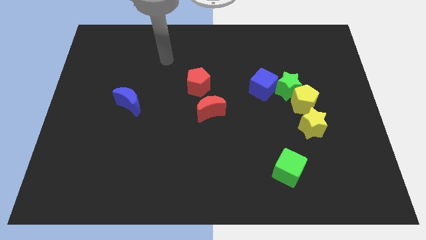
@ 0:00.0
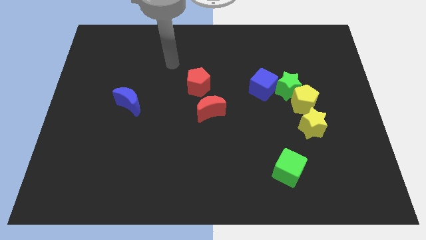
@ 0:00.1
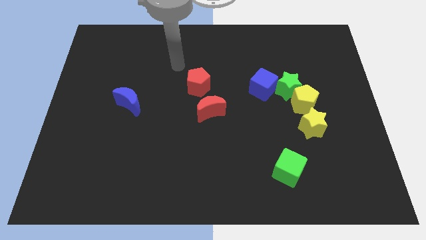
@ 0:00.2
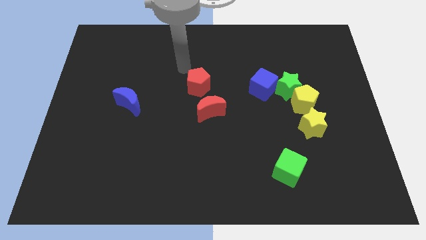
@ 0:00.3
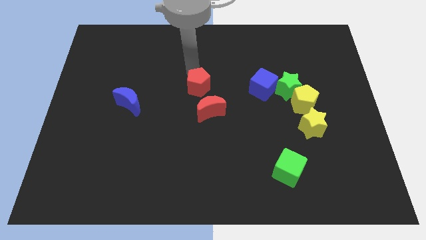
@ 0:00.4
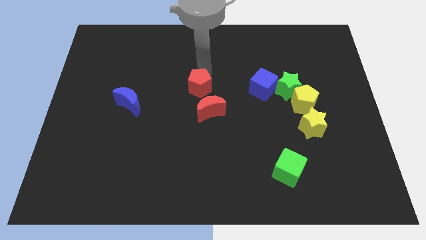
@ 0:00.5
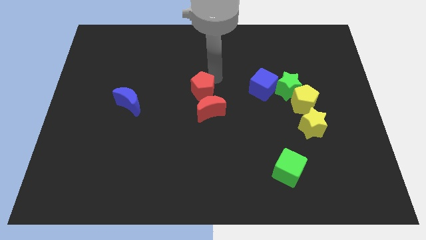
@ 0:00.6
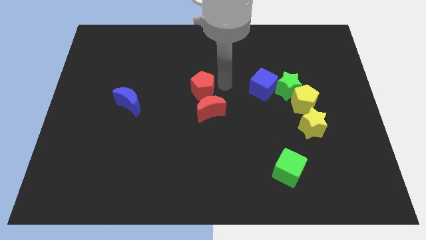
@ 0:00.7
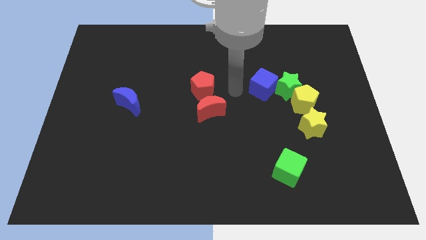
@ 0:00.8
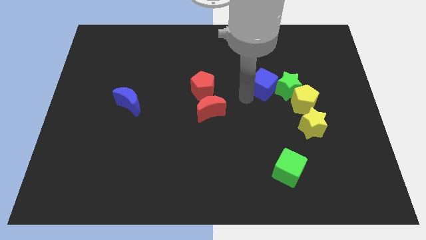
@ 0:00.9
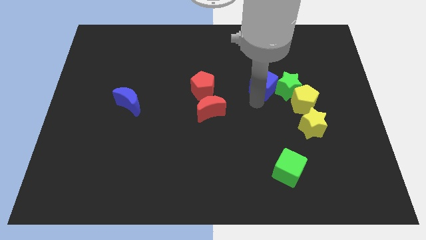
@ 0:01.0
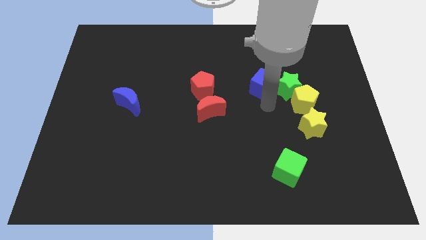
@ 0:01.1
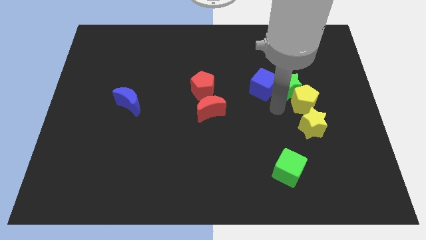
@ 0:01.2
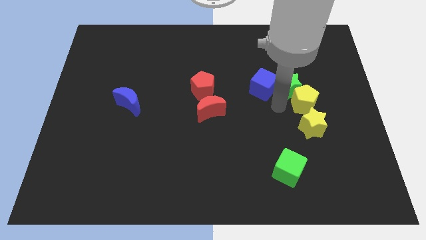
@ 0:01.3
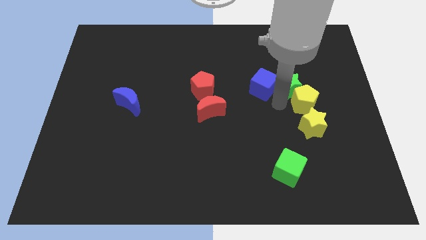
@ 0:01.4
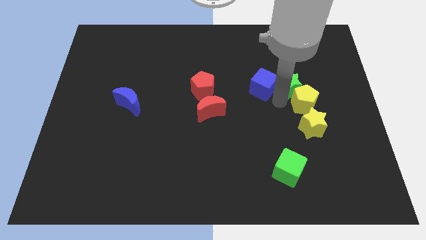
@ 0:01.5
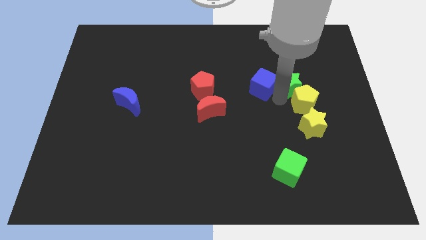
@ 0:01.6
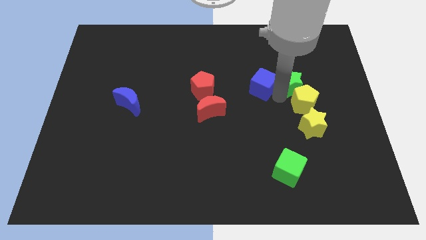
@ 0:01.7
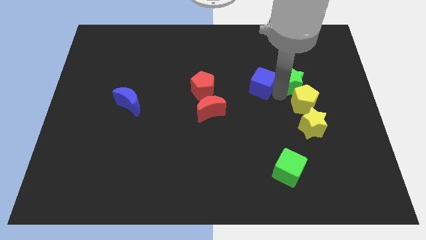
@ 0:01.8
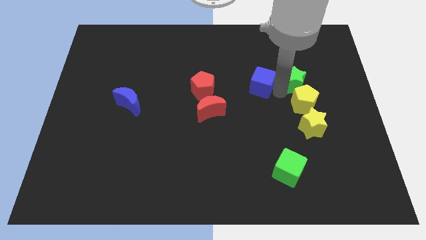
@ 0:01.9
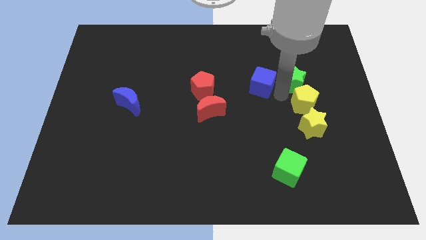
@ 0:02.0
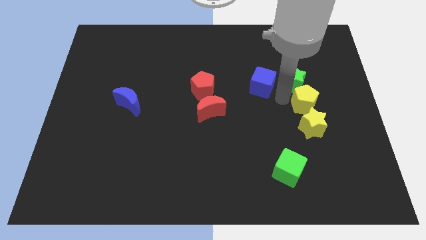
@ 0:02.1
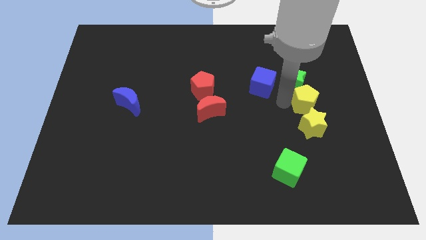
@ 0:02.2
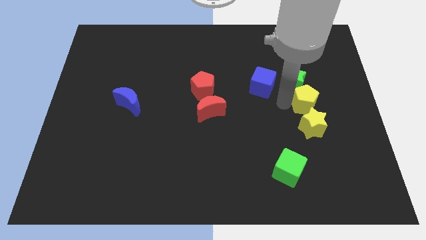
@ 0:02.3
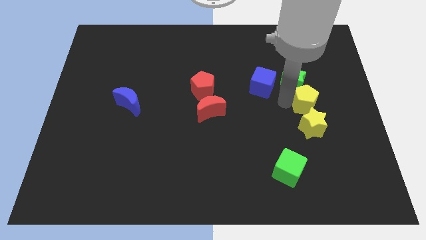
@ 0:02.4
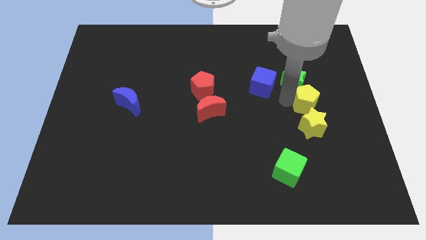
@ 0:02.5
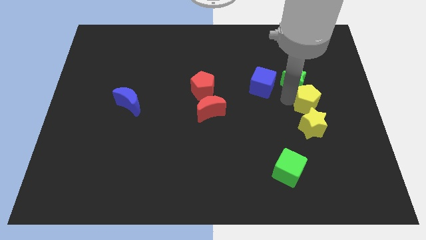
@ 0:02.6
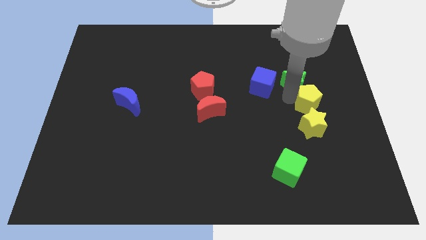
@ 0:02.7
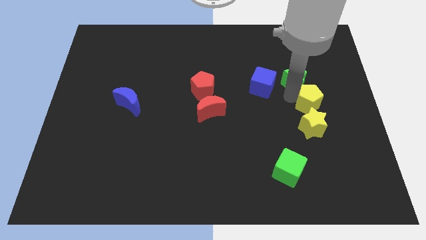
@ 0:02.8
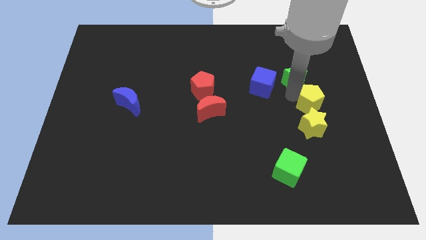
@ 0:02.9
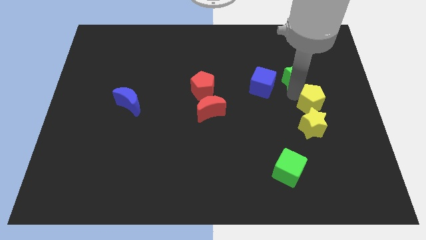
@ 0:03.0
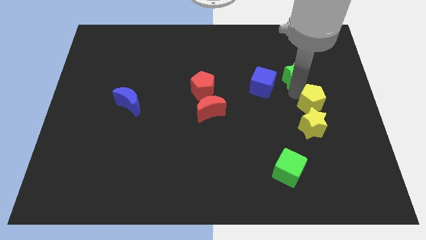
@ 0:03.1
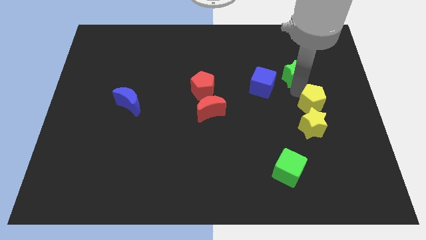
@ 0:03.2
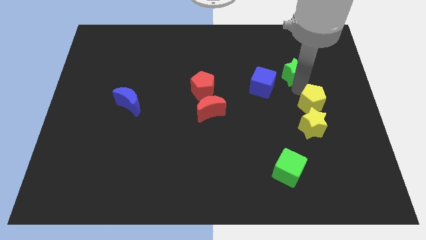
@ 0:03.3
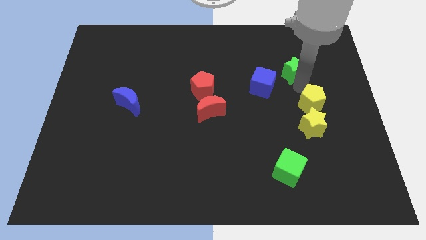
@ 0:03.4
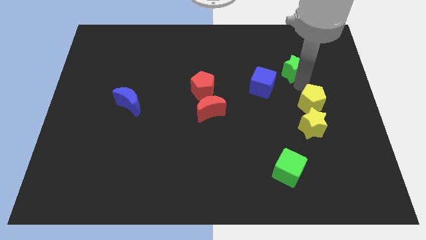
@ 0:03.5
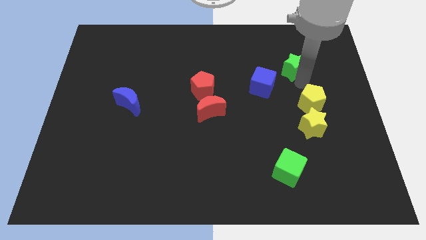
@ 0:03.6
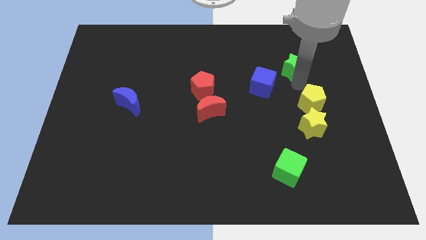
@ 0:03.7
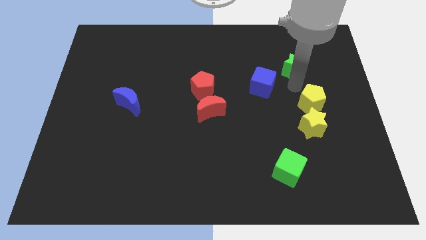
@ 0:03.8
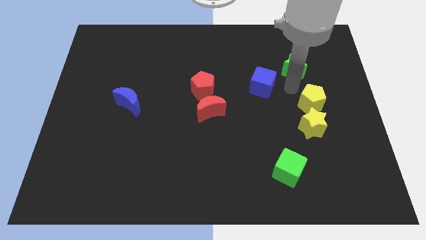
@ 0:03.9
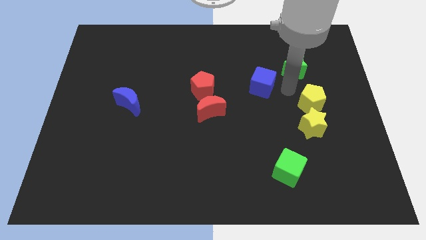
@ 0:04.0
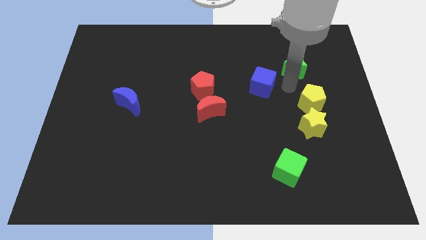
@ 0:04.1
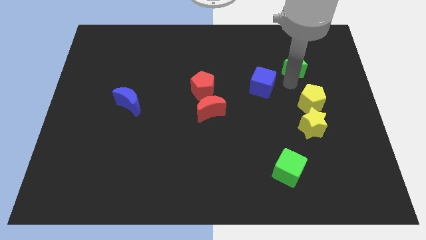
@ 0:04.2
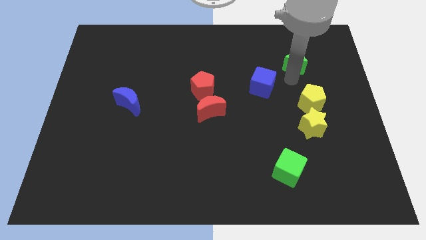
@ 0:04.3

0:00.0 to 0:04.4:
move the green star away from the yellow pentagon and blue cube

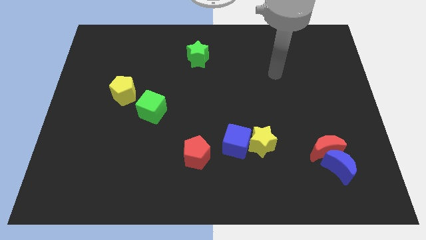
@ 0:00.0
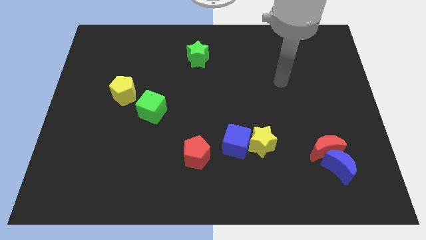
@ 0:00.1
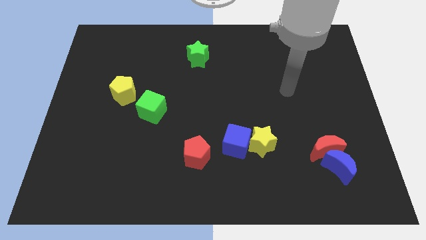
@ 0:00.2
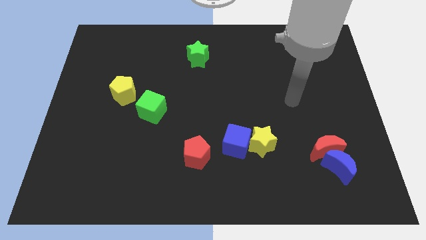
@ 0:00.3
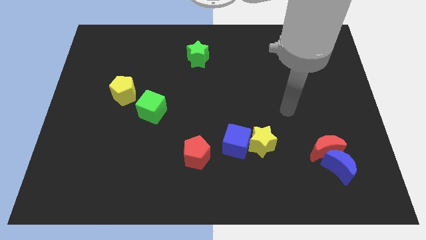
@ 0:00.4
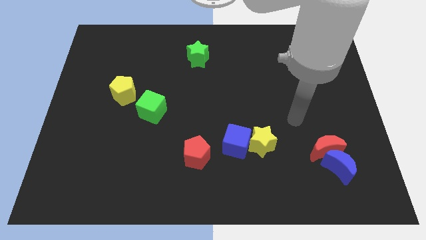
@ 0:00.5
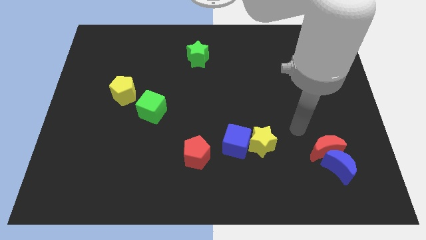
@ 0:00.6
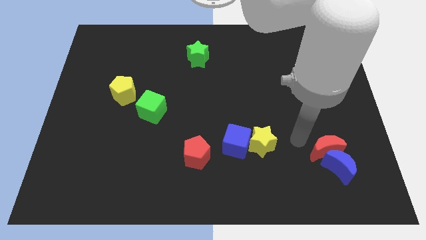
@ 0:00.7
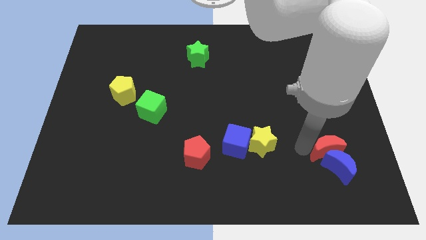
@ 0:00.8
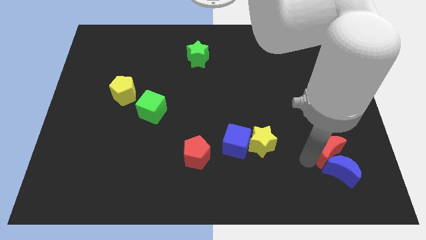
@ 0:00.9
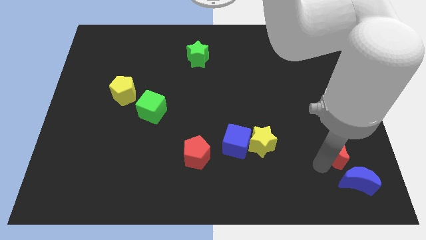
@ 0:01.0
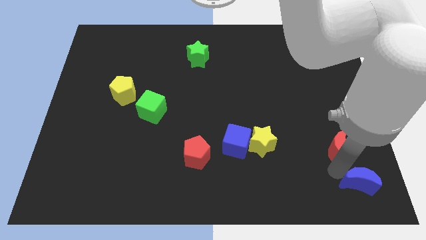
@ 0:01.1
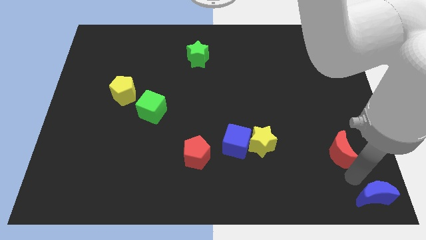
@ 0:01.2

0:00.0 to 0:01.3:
separate the red moon from the blue moon

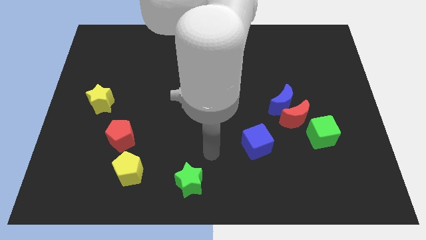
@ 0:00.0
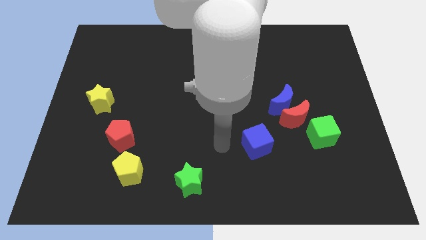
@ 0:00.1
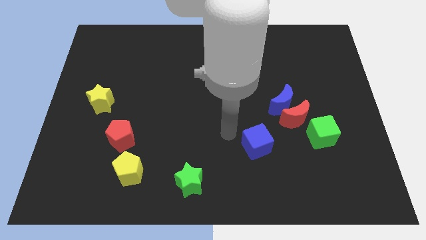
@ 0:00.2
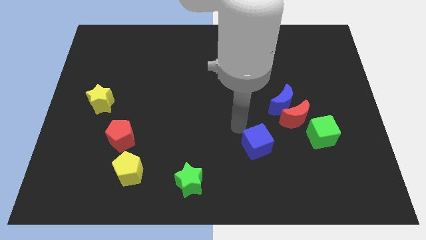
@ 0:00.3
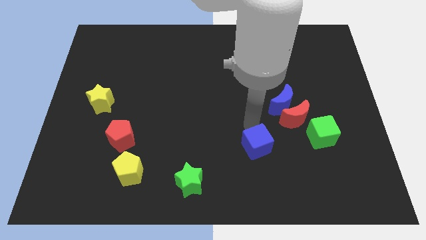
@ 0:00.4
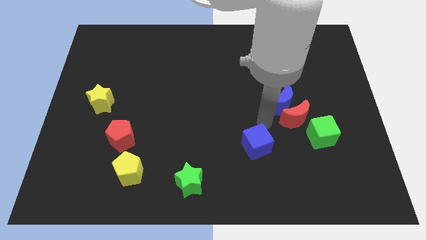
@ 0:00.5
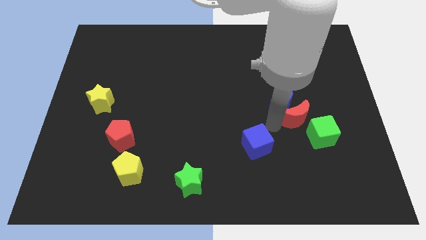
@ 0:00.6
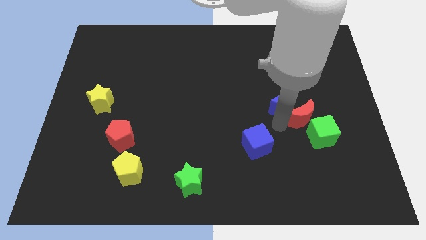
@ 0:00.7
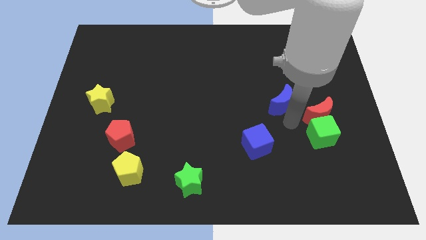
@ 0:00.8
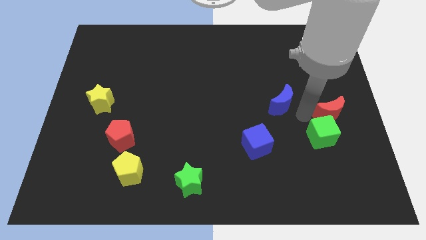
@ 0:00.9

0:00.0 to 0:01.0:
move the blue moon away from the red moon

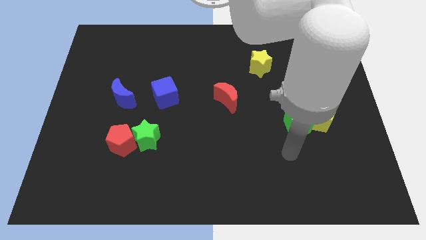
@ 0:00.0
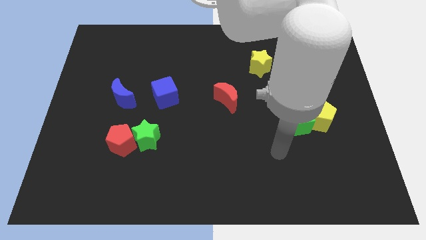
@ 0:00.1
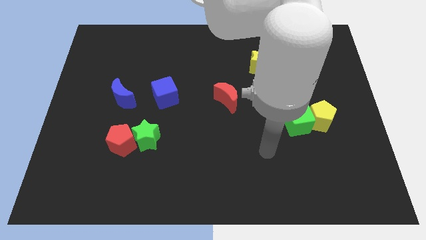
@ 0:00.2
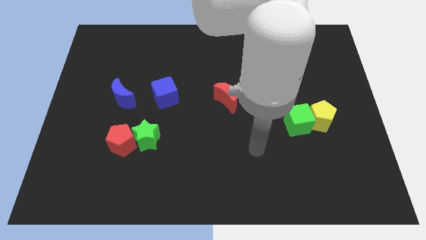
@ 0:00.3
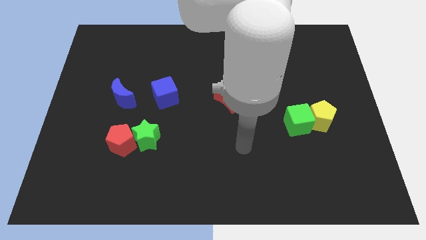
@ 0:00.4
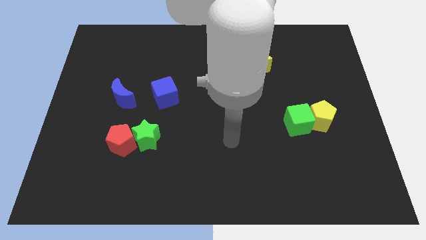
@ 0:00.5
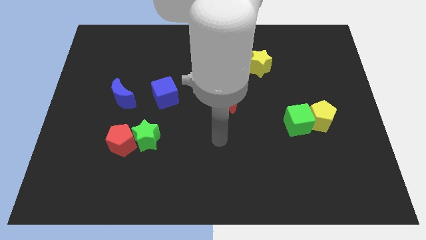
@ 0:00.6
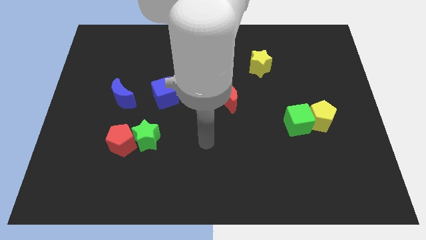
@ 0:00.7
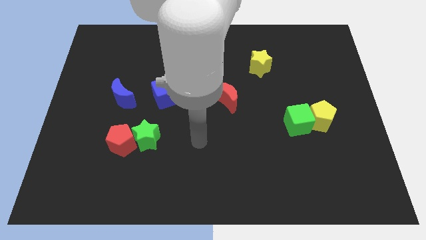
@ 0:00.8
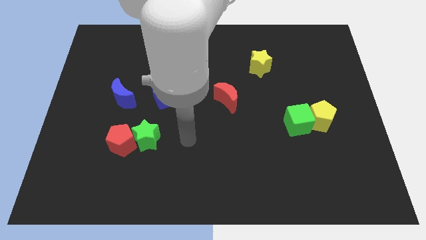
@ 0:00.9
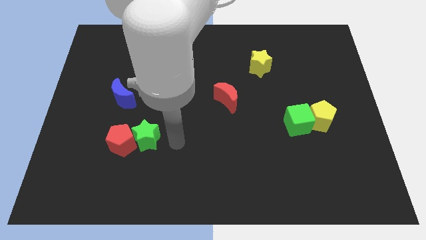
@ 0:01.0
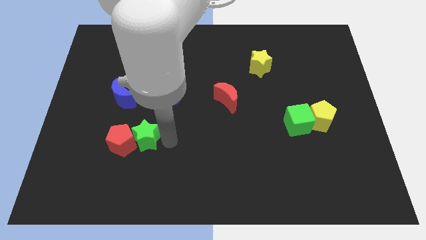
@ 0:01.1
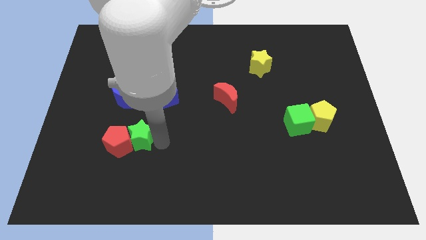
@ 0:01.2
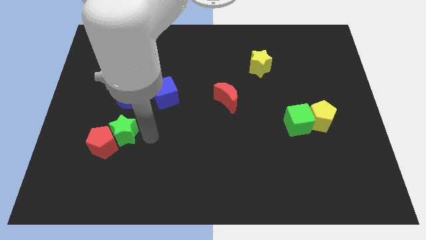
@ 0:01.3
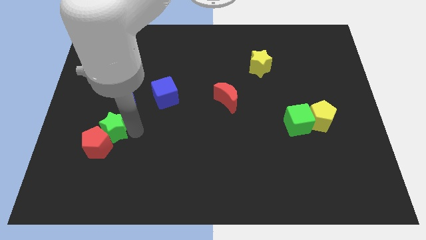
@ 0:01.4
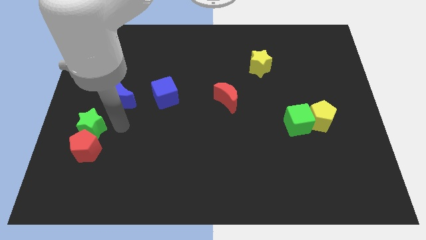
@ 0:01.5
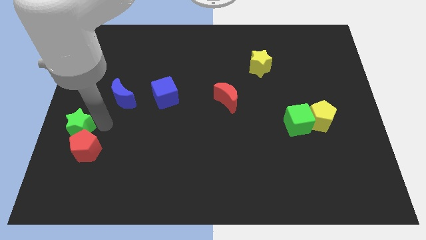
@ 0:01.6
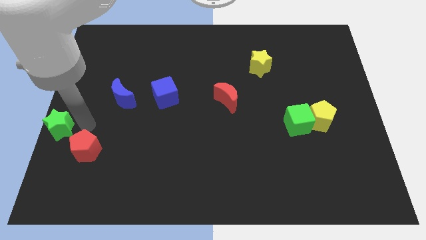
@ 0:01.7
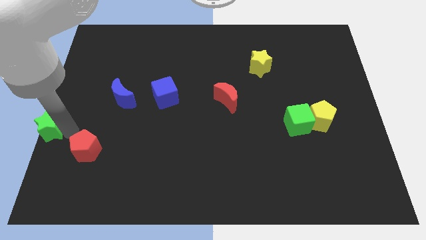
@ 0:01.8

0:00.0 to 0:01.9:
move the red pentagon away from the green star

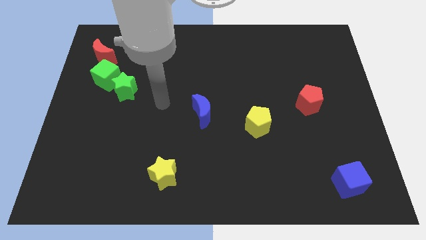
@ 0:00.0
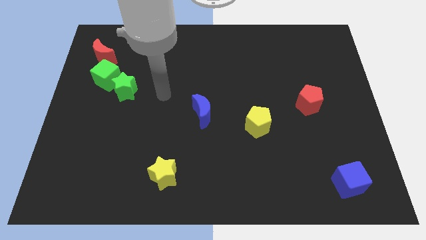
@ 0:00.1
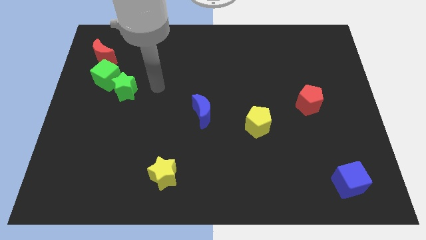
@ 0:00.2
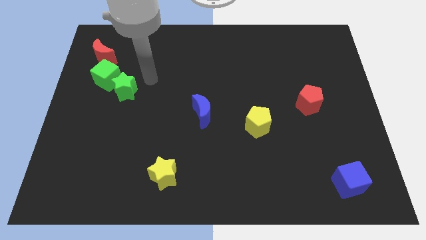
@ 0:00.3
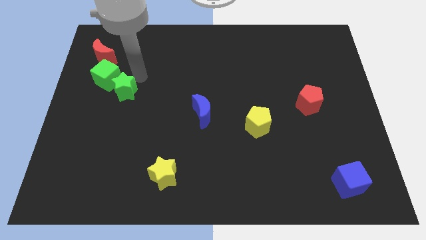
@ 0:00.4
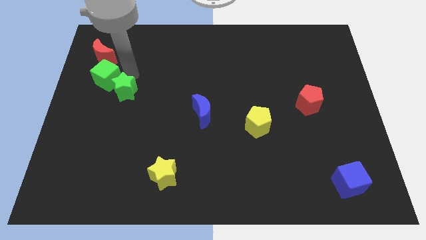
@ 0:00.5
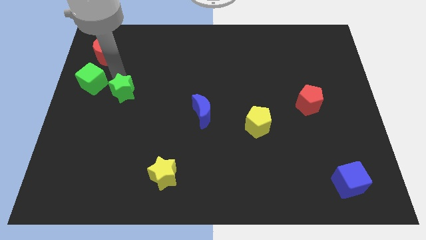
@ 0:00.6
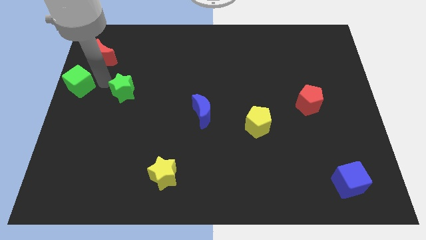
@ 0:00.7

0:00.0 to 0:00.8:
separate the green star from the green cube

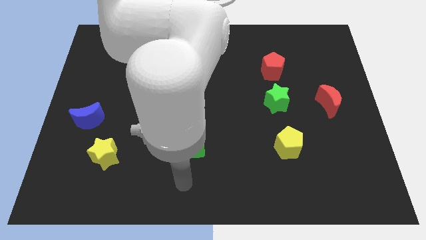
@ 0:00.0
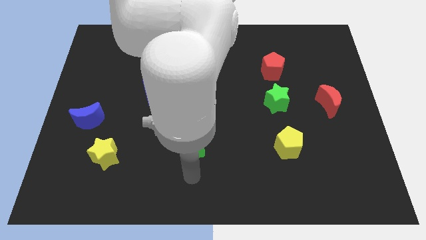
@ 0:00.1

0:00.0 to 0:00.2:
pull the red pentagon apart from the green star
